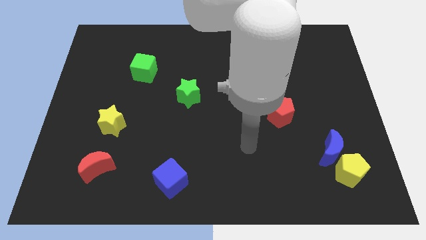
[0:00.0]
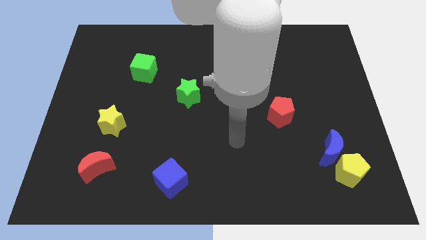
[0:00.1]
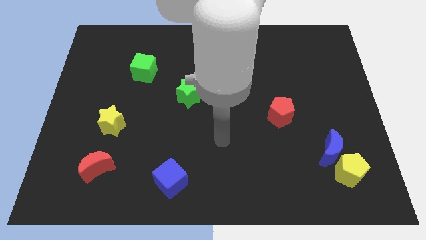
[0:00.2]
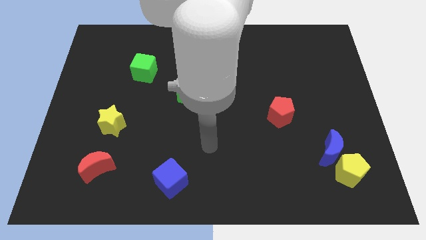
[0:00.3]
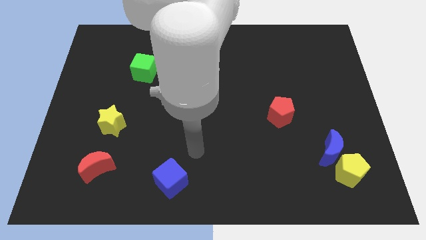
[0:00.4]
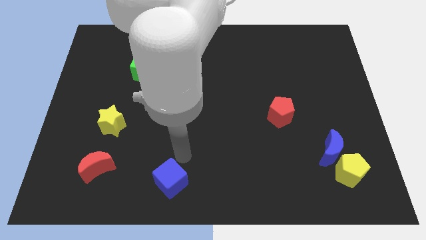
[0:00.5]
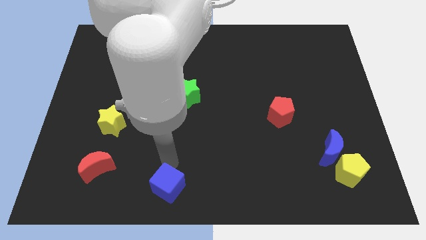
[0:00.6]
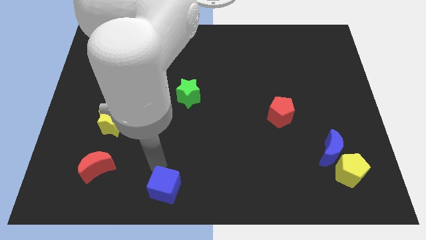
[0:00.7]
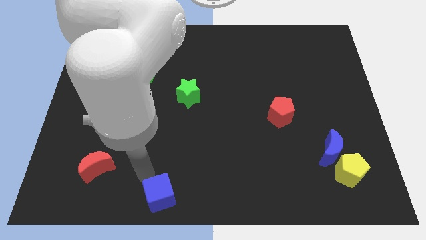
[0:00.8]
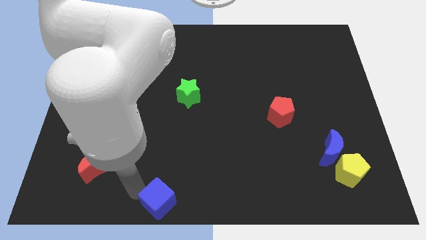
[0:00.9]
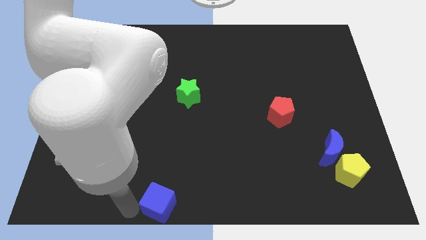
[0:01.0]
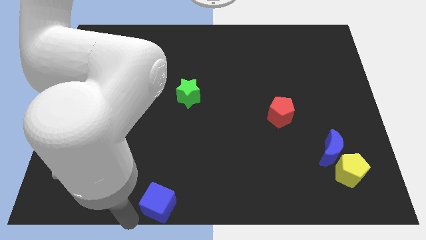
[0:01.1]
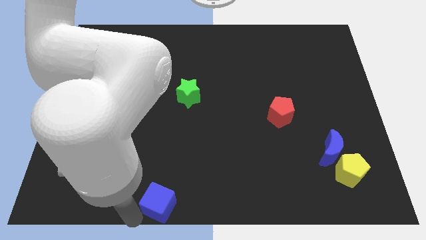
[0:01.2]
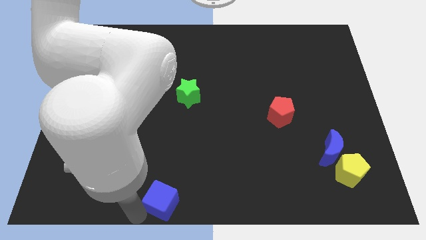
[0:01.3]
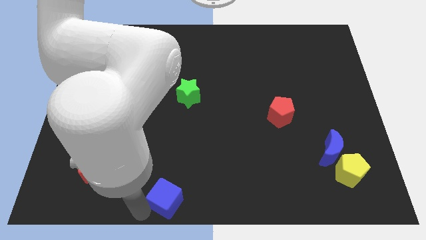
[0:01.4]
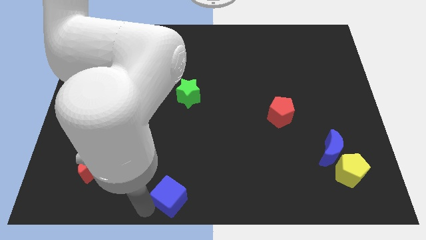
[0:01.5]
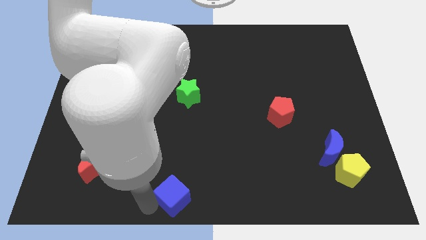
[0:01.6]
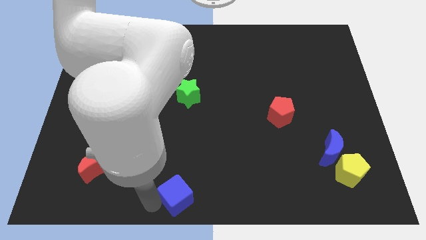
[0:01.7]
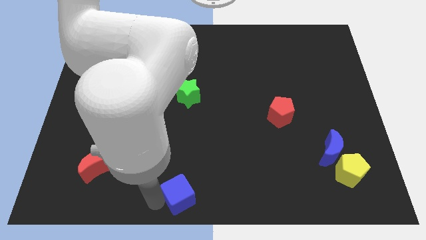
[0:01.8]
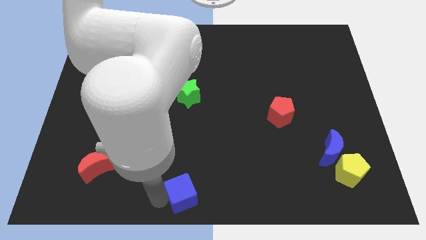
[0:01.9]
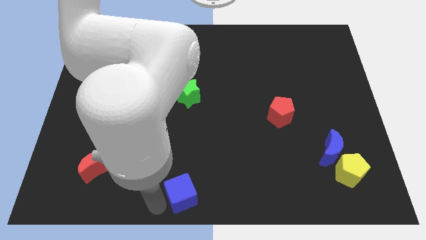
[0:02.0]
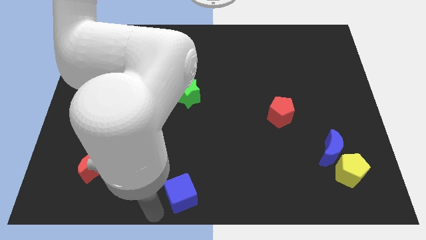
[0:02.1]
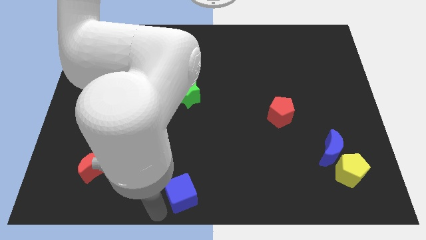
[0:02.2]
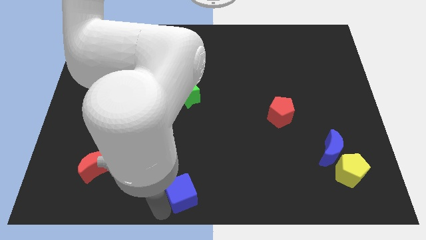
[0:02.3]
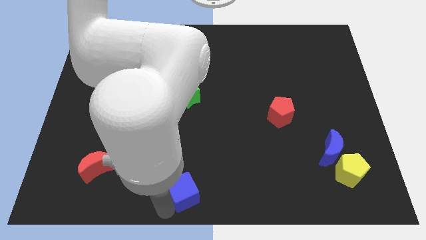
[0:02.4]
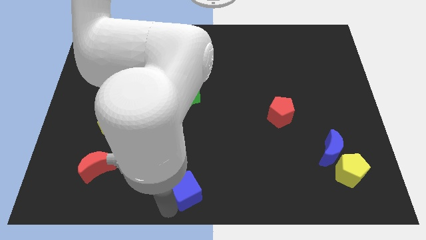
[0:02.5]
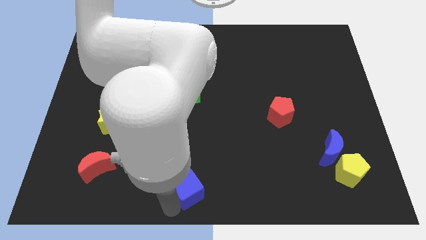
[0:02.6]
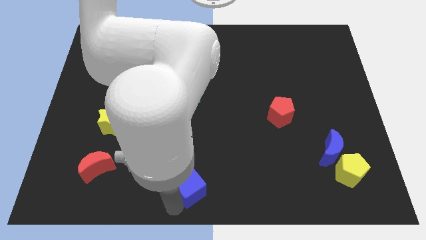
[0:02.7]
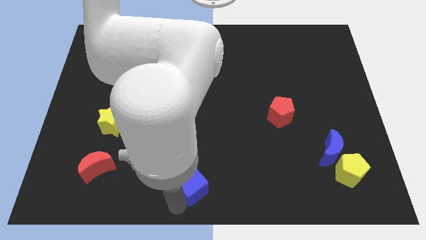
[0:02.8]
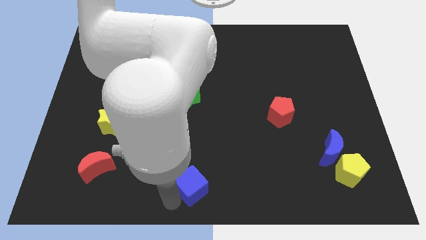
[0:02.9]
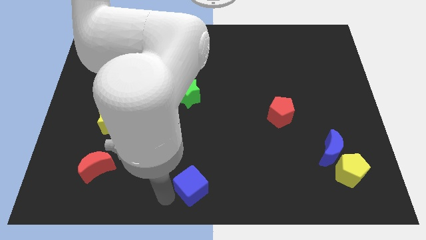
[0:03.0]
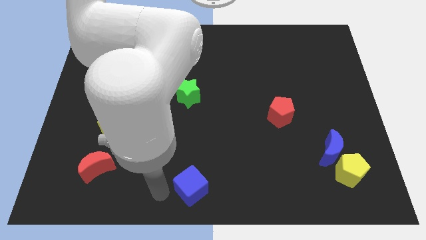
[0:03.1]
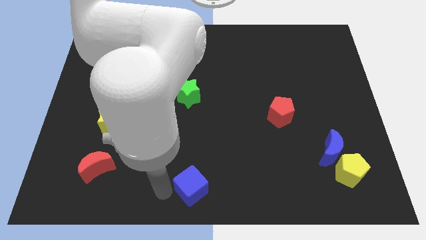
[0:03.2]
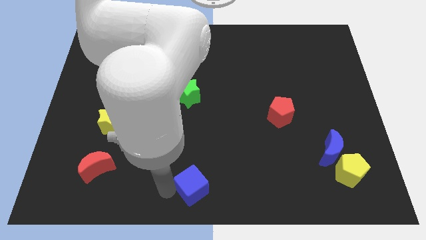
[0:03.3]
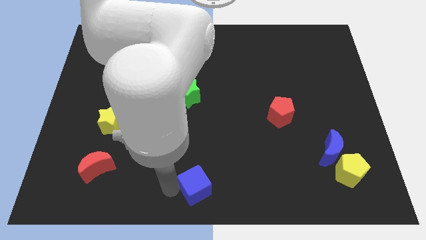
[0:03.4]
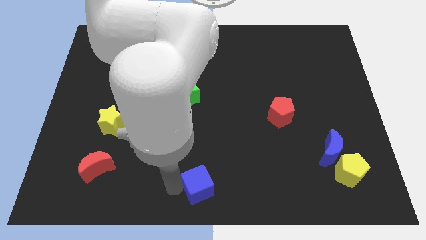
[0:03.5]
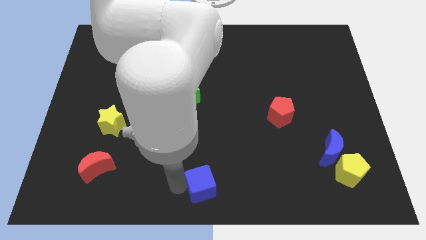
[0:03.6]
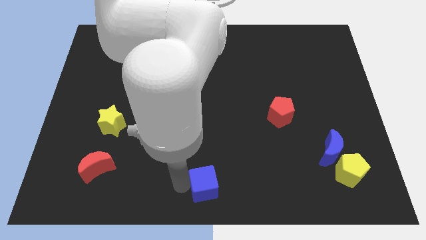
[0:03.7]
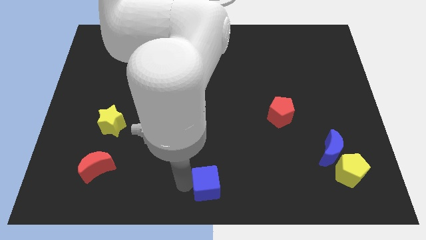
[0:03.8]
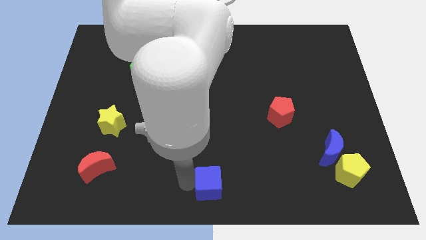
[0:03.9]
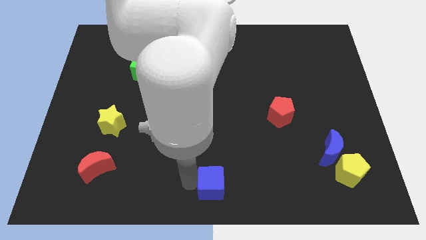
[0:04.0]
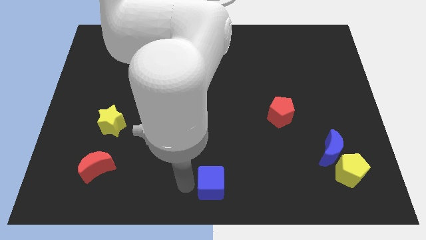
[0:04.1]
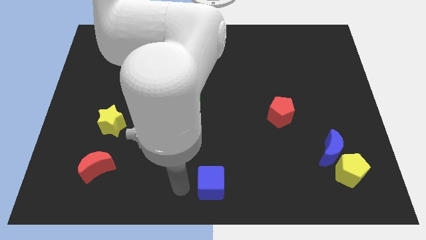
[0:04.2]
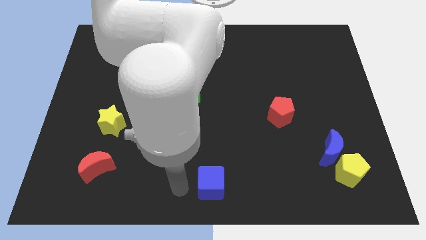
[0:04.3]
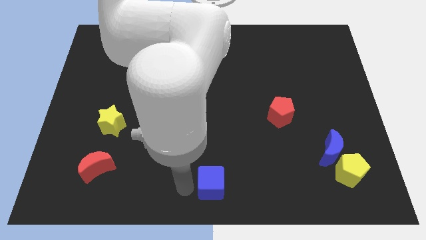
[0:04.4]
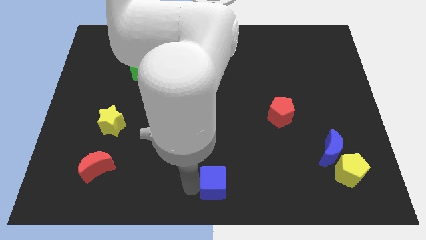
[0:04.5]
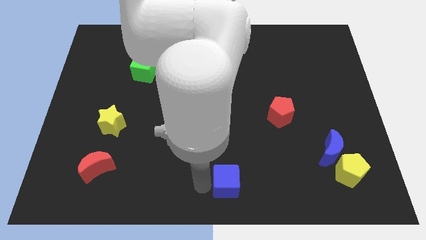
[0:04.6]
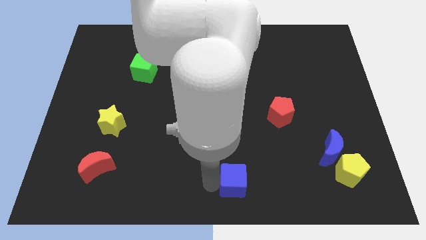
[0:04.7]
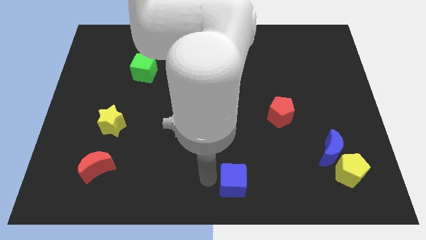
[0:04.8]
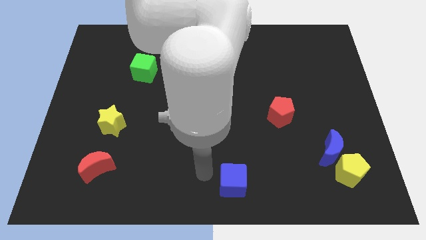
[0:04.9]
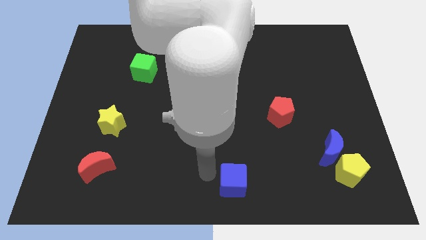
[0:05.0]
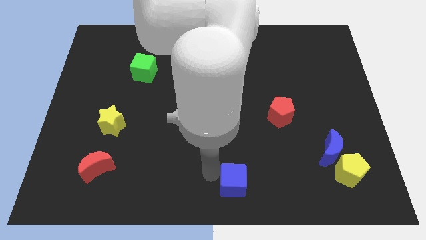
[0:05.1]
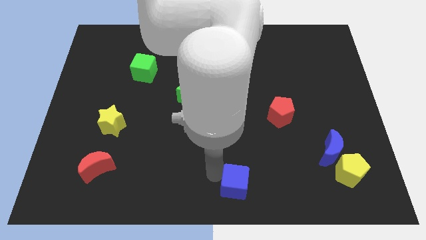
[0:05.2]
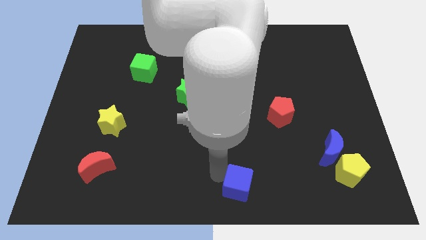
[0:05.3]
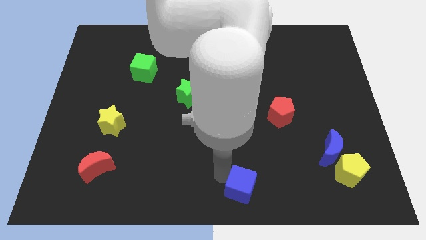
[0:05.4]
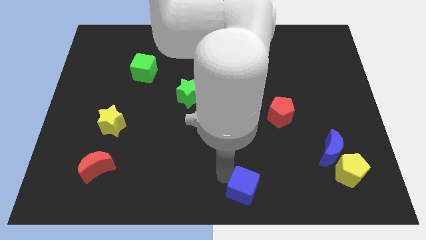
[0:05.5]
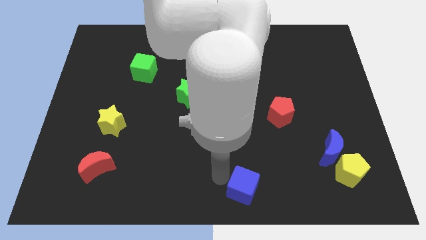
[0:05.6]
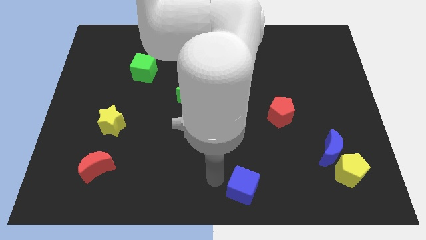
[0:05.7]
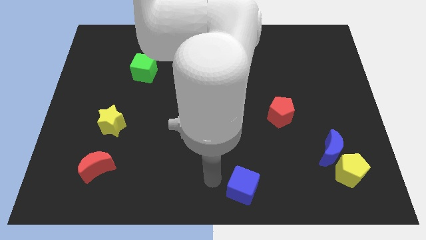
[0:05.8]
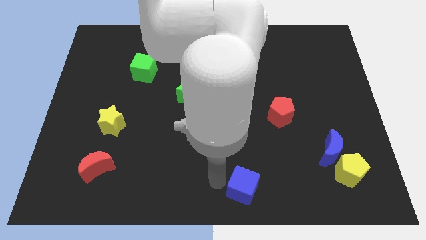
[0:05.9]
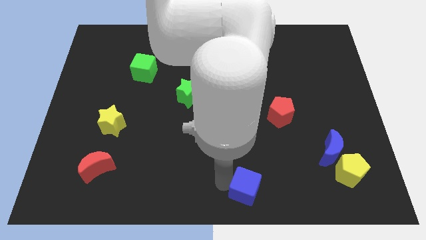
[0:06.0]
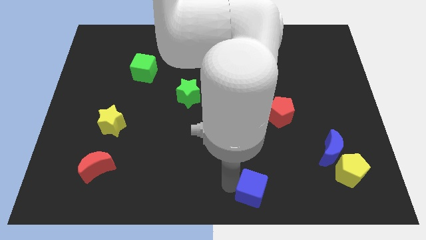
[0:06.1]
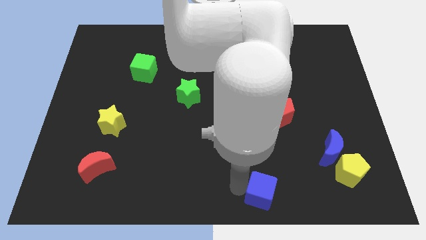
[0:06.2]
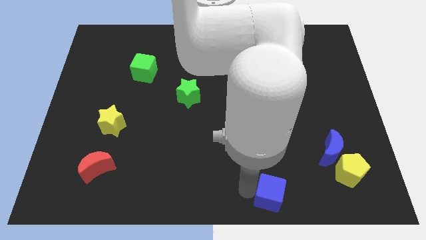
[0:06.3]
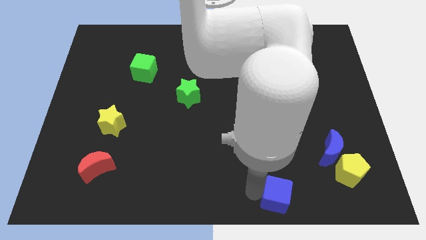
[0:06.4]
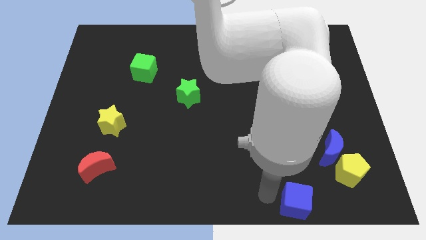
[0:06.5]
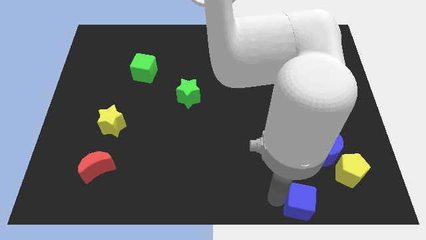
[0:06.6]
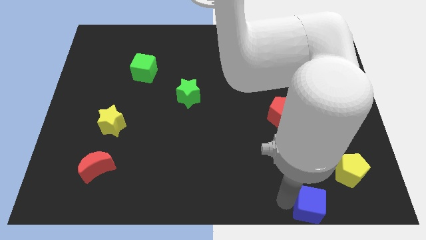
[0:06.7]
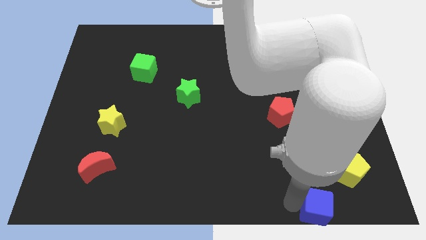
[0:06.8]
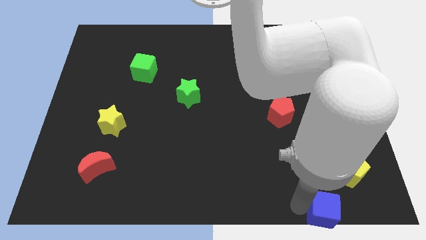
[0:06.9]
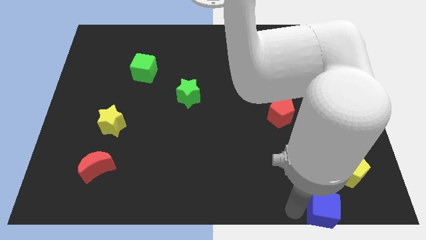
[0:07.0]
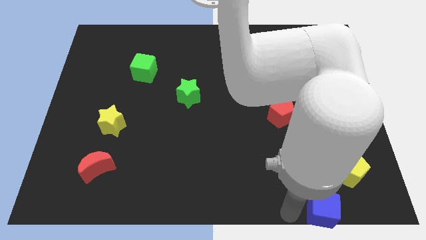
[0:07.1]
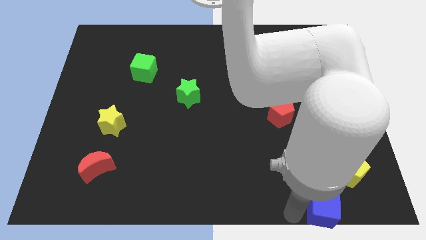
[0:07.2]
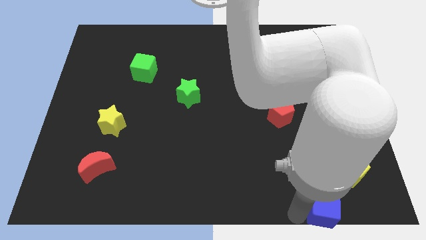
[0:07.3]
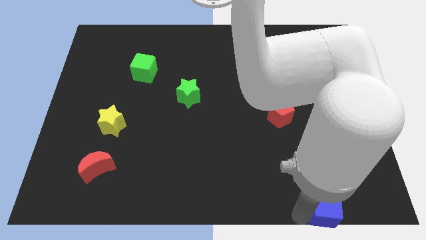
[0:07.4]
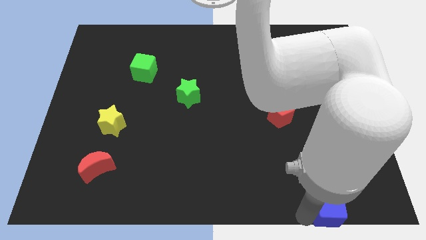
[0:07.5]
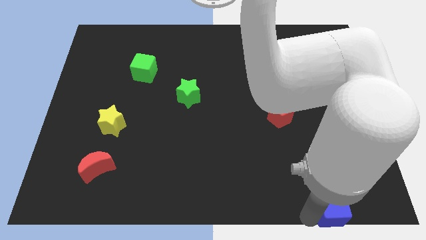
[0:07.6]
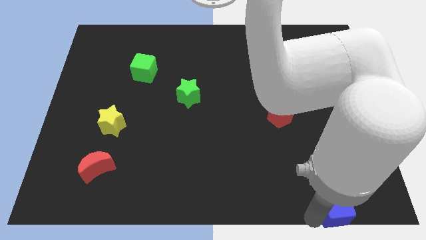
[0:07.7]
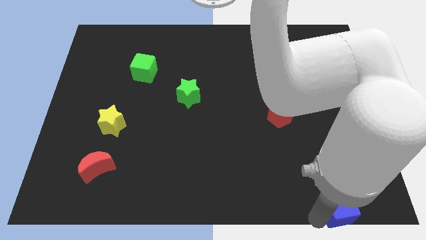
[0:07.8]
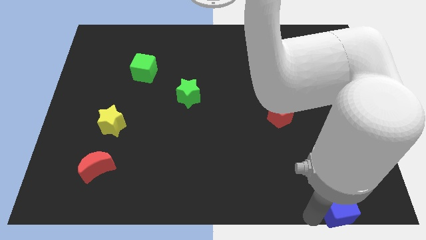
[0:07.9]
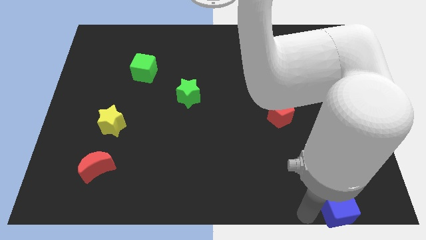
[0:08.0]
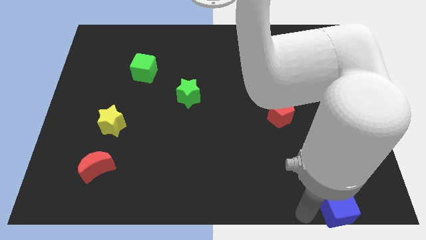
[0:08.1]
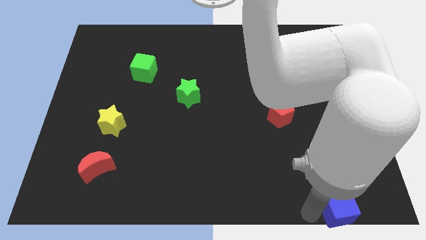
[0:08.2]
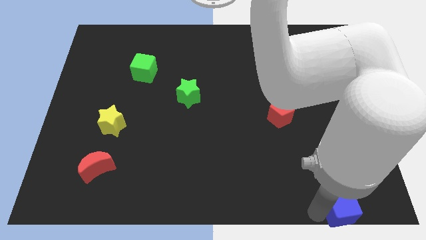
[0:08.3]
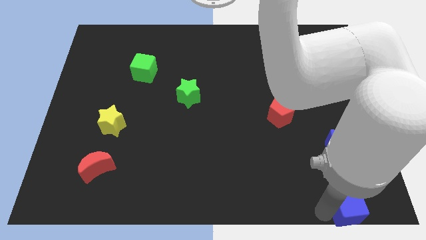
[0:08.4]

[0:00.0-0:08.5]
move the blue cube to the bottom right of the board
